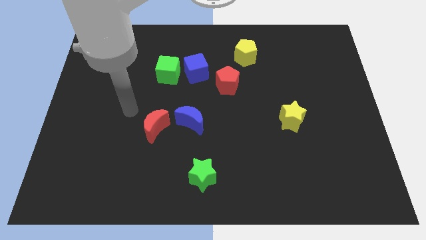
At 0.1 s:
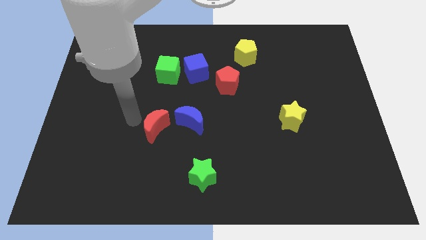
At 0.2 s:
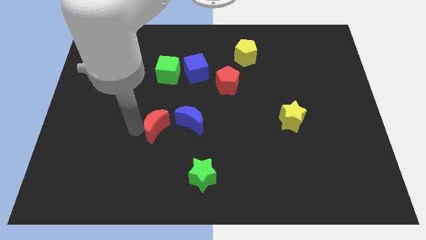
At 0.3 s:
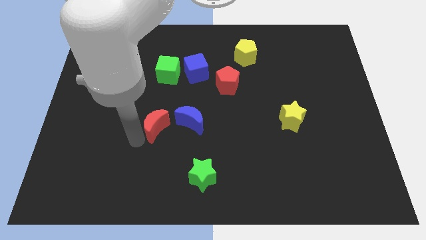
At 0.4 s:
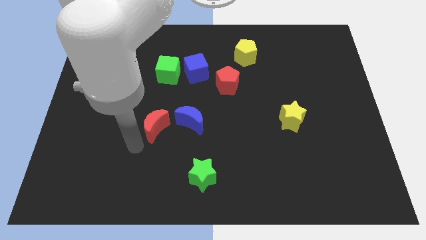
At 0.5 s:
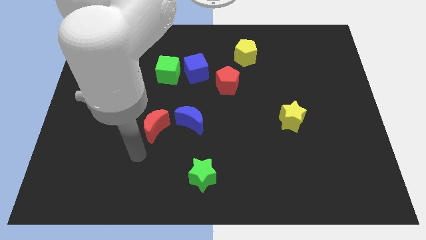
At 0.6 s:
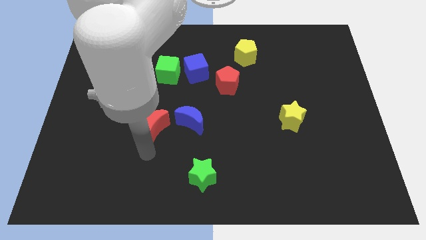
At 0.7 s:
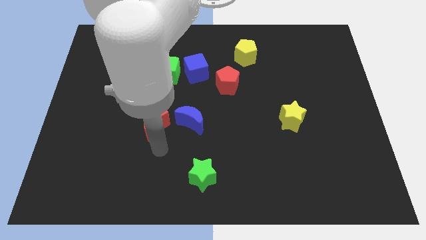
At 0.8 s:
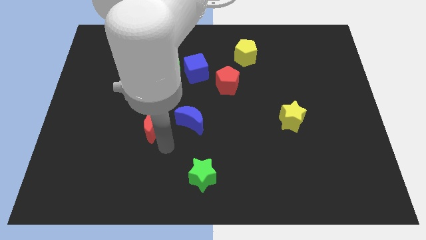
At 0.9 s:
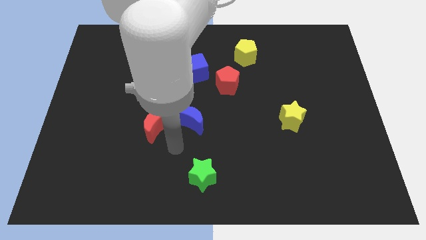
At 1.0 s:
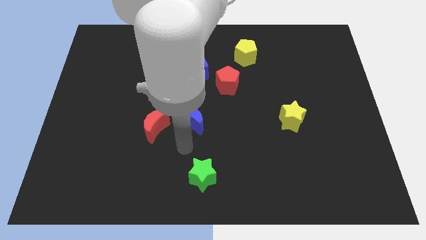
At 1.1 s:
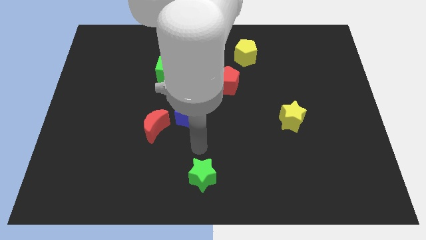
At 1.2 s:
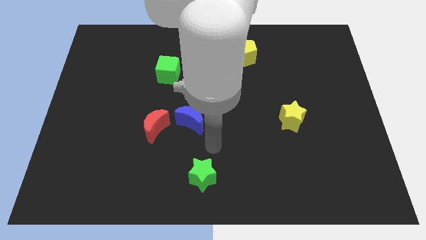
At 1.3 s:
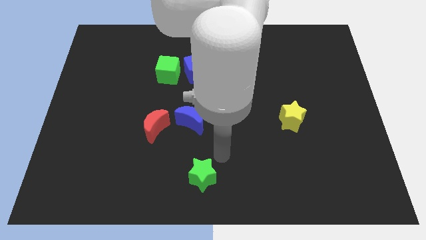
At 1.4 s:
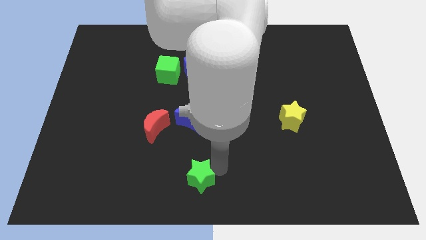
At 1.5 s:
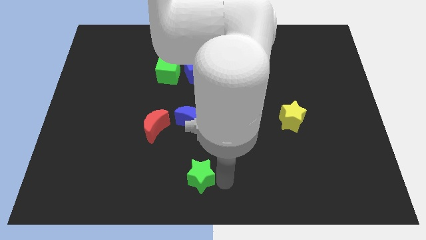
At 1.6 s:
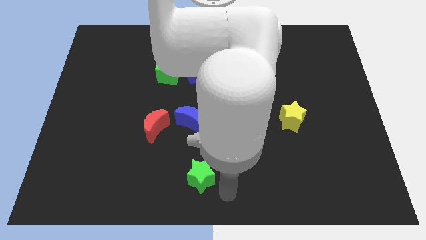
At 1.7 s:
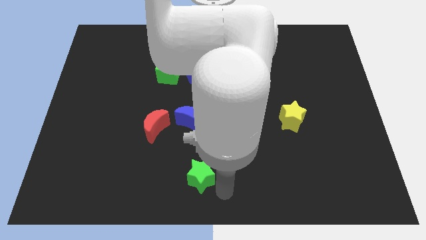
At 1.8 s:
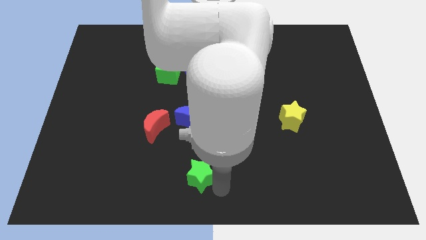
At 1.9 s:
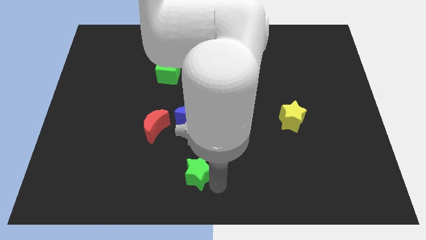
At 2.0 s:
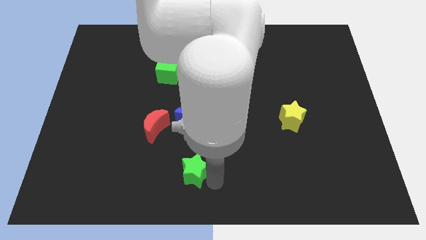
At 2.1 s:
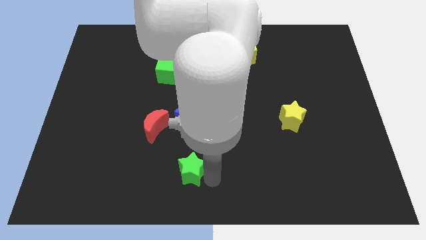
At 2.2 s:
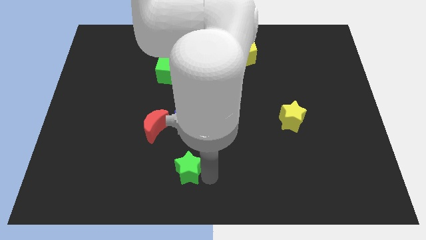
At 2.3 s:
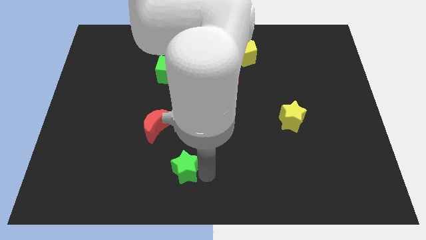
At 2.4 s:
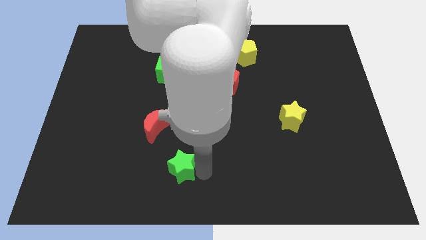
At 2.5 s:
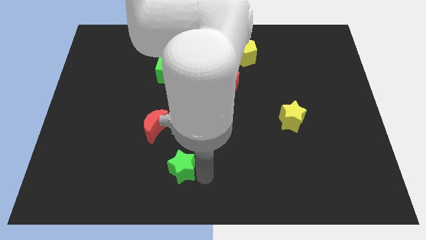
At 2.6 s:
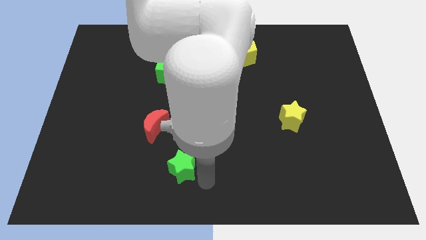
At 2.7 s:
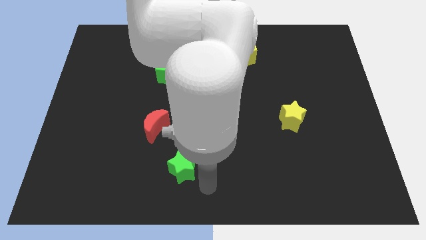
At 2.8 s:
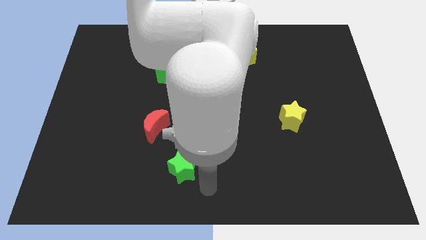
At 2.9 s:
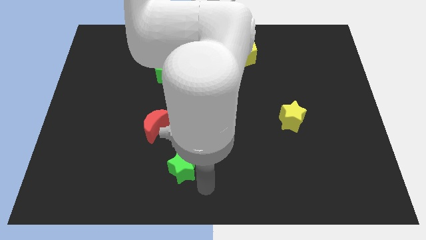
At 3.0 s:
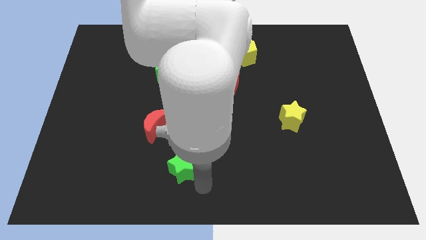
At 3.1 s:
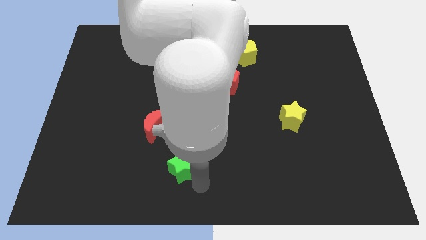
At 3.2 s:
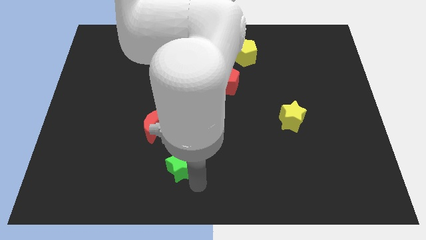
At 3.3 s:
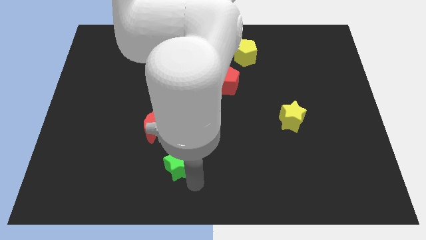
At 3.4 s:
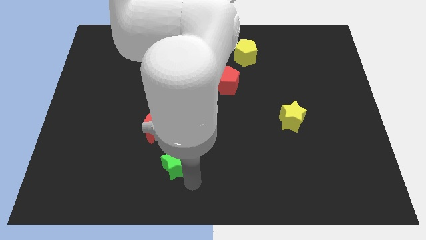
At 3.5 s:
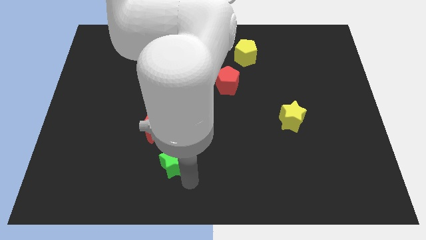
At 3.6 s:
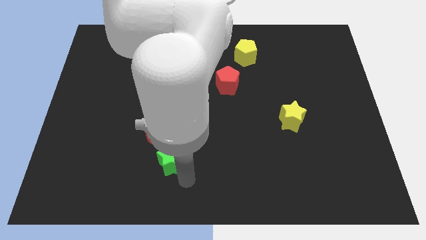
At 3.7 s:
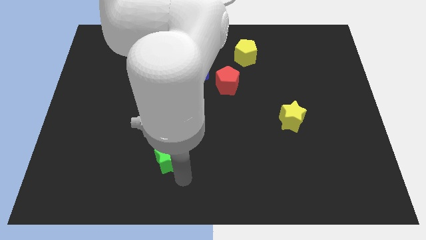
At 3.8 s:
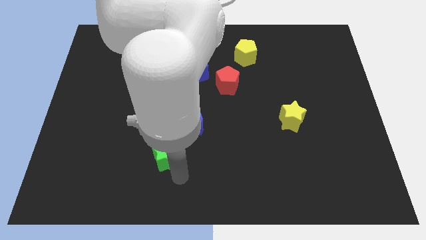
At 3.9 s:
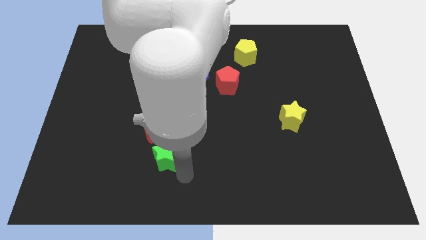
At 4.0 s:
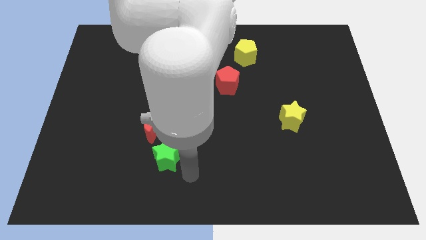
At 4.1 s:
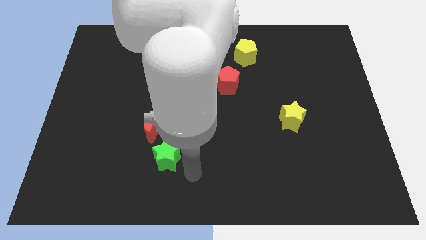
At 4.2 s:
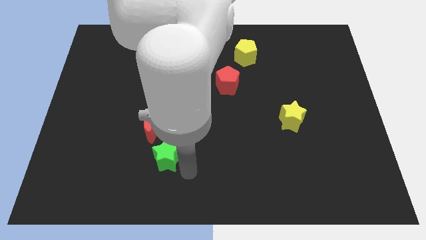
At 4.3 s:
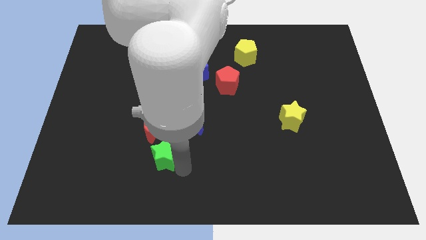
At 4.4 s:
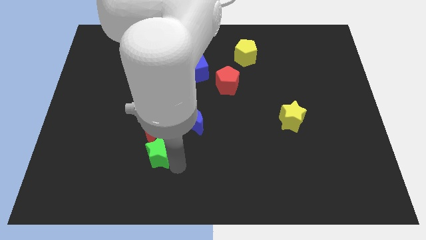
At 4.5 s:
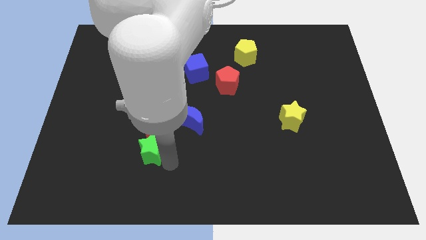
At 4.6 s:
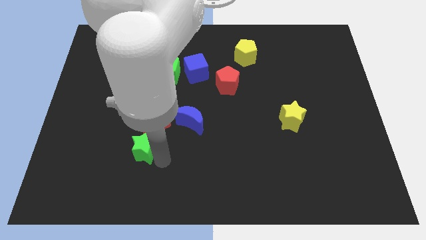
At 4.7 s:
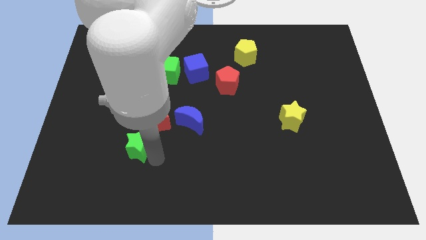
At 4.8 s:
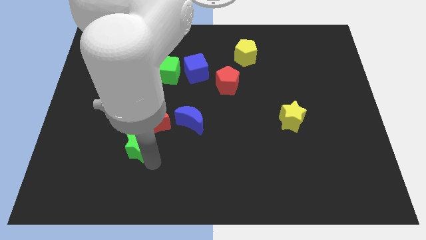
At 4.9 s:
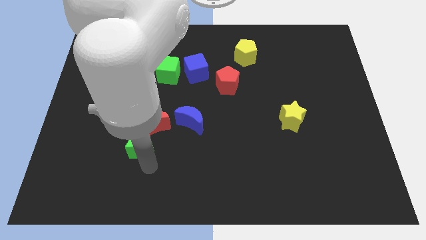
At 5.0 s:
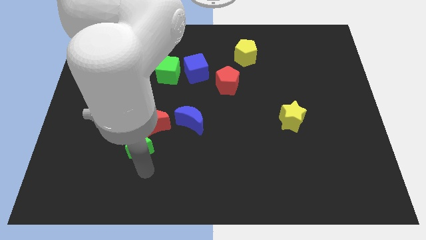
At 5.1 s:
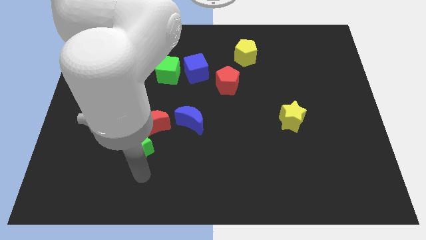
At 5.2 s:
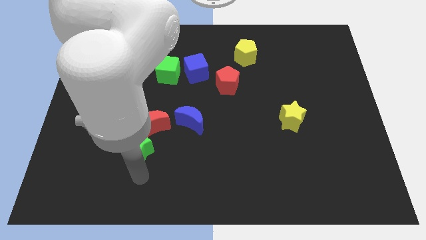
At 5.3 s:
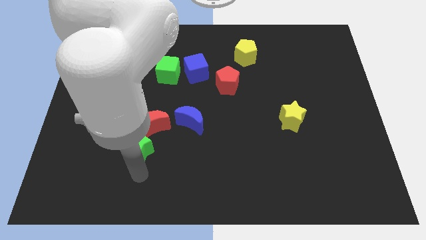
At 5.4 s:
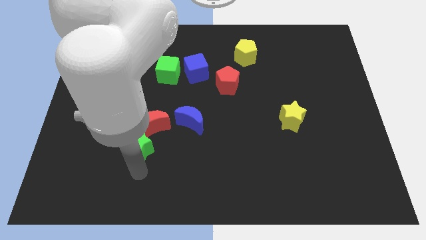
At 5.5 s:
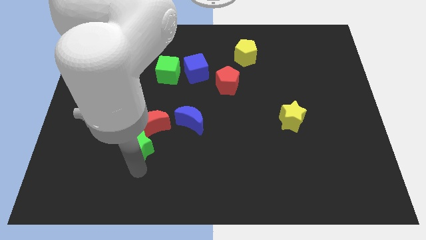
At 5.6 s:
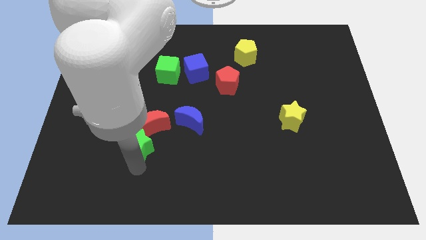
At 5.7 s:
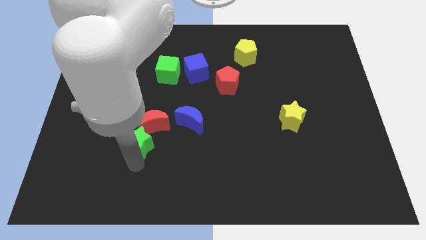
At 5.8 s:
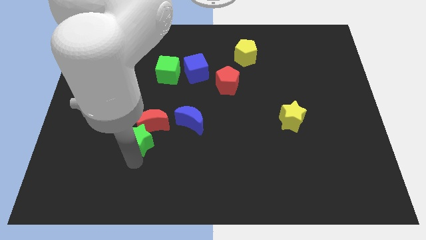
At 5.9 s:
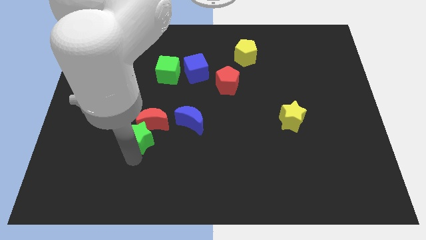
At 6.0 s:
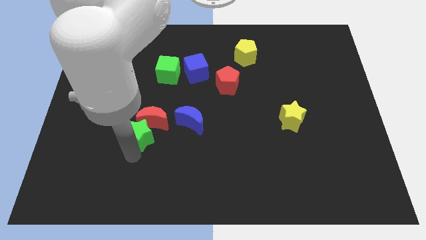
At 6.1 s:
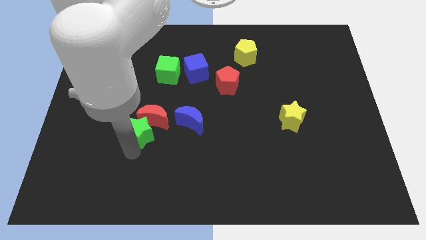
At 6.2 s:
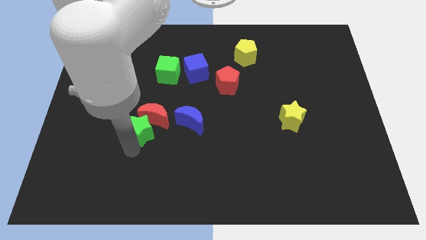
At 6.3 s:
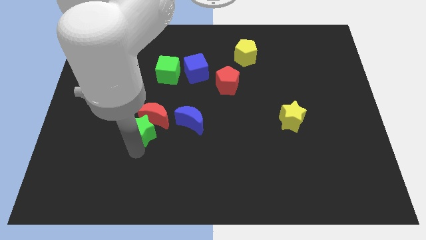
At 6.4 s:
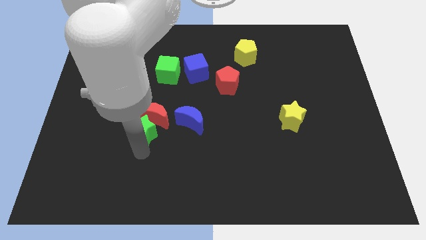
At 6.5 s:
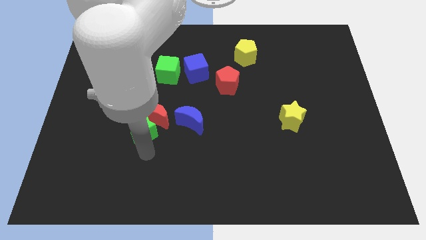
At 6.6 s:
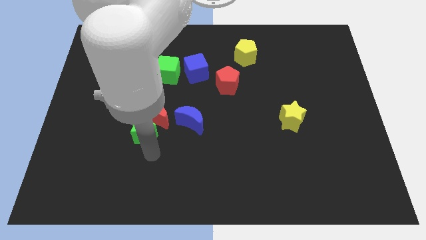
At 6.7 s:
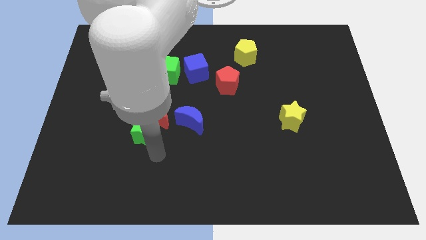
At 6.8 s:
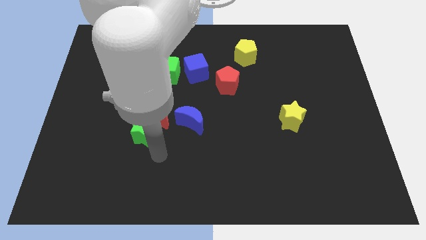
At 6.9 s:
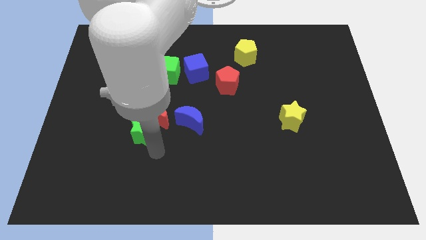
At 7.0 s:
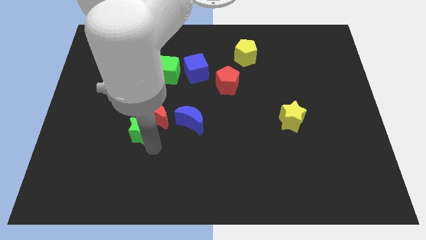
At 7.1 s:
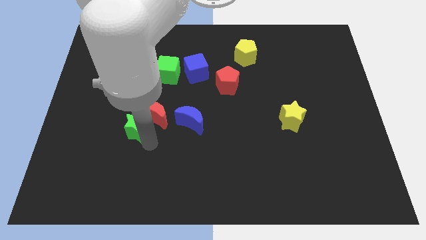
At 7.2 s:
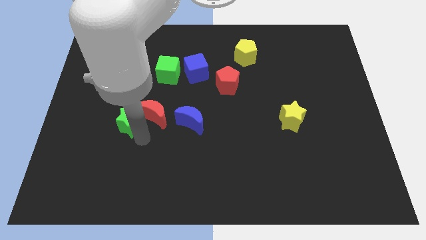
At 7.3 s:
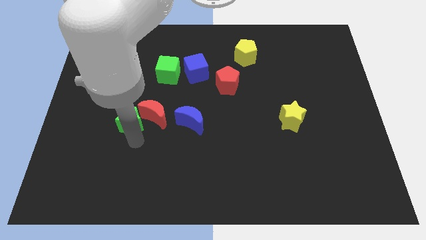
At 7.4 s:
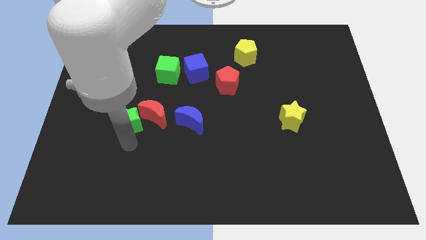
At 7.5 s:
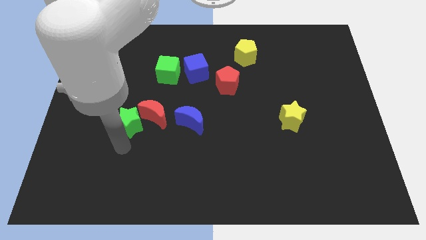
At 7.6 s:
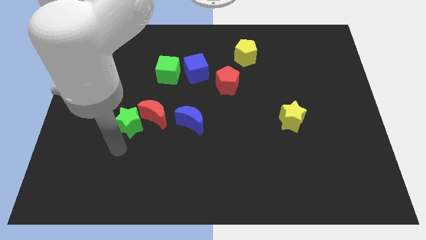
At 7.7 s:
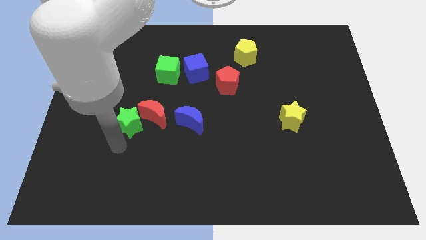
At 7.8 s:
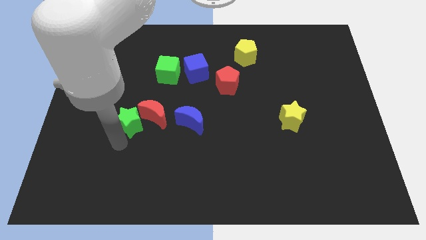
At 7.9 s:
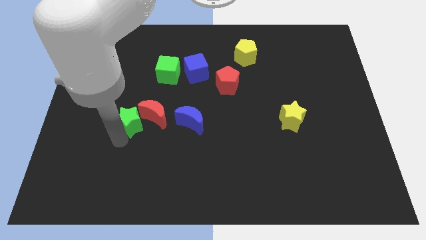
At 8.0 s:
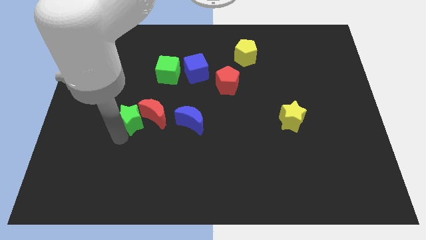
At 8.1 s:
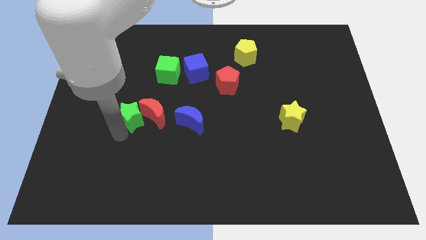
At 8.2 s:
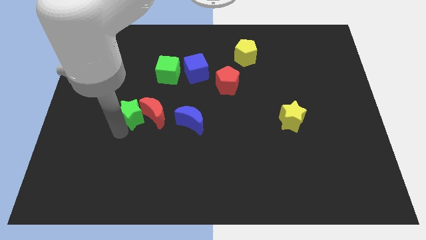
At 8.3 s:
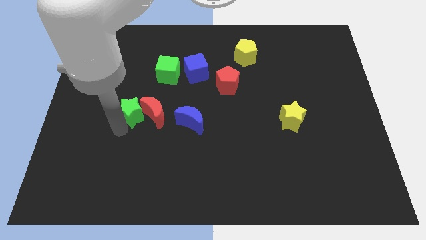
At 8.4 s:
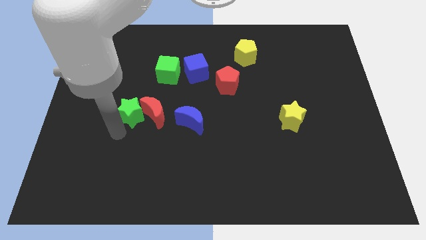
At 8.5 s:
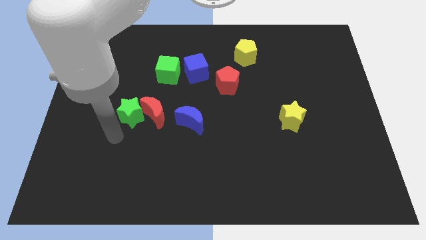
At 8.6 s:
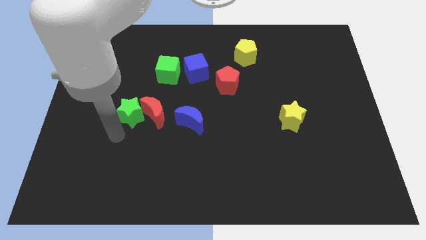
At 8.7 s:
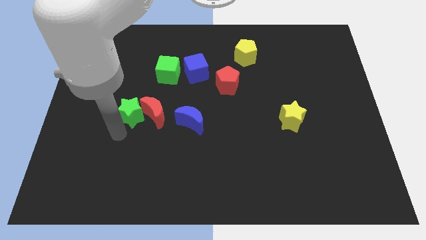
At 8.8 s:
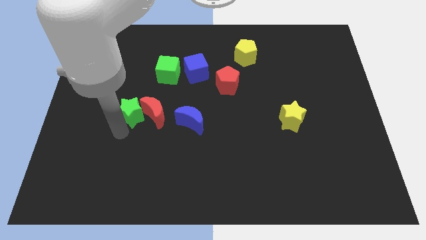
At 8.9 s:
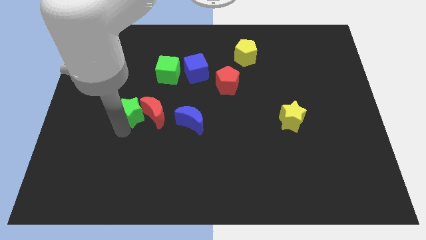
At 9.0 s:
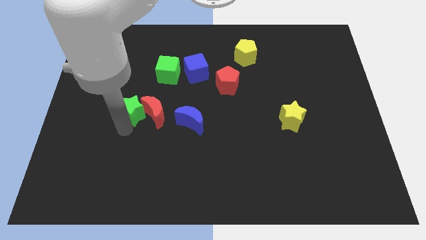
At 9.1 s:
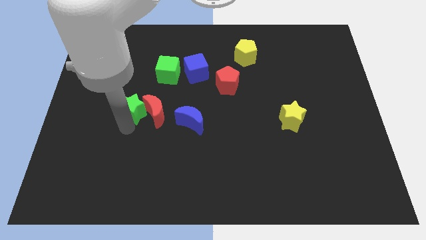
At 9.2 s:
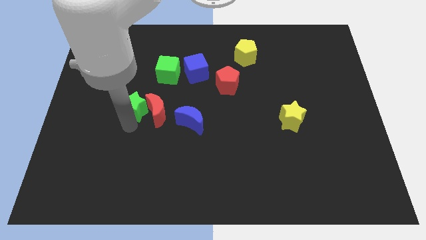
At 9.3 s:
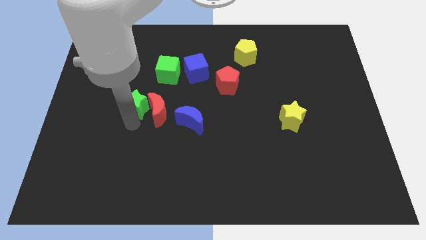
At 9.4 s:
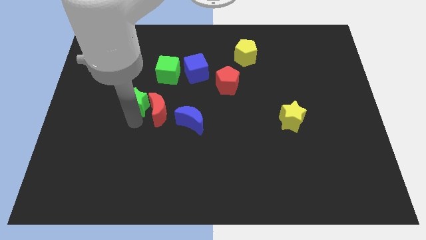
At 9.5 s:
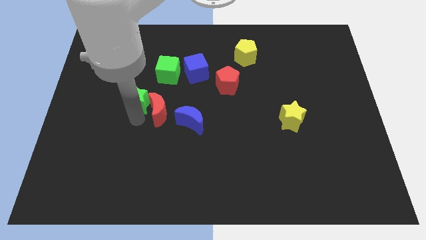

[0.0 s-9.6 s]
push the green star diagonally down and to the left of the green cube
